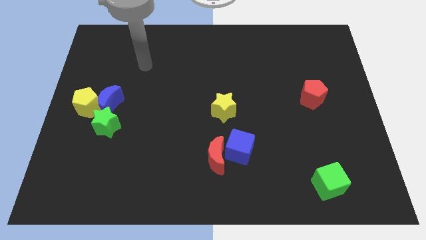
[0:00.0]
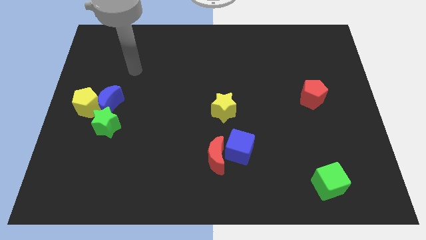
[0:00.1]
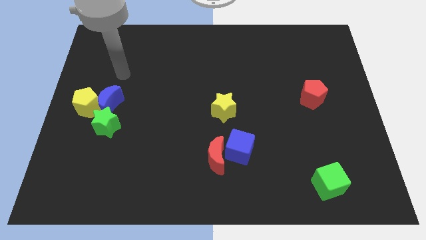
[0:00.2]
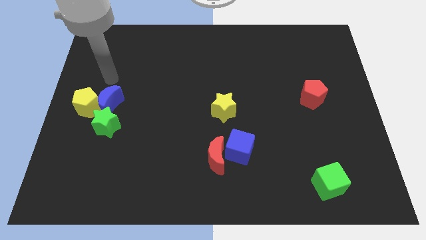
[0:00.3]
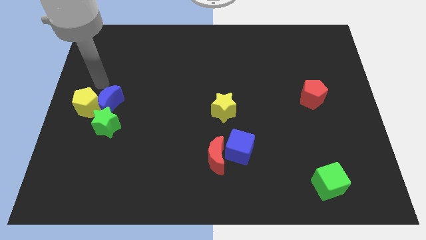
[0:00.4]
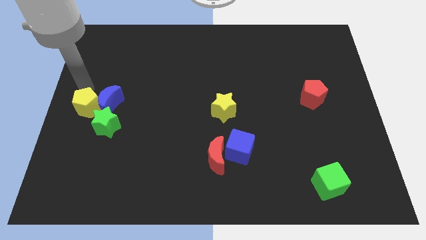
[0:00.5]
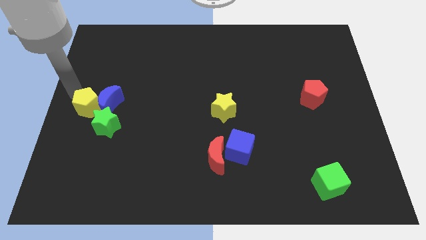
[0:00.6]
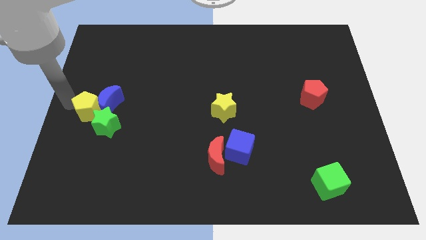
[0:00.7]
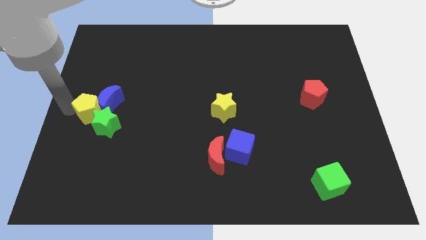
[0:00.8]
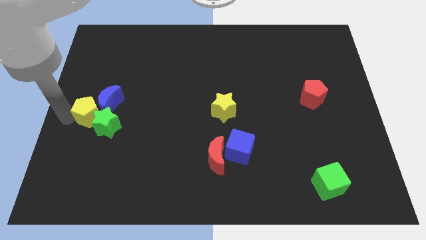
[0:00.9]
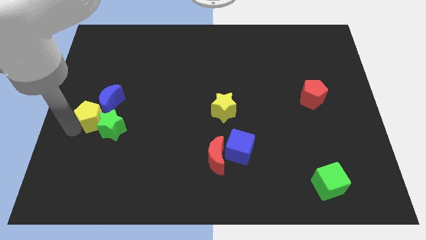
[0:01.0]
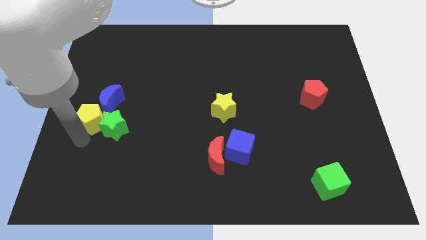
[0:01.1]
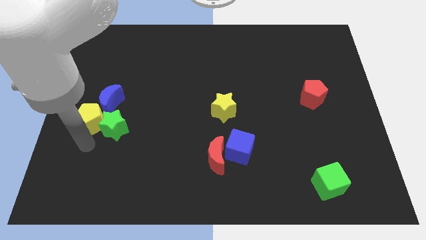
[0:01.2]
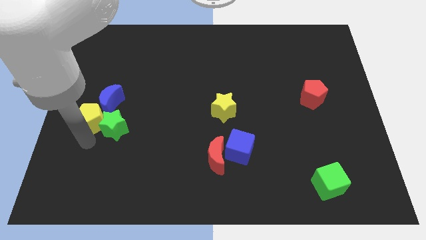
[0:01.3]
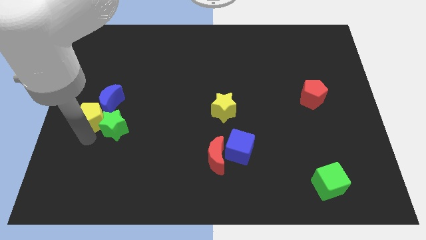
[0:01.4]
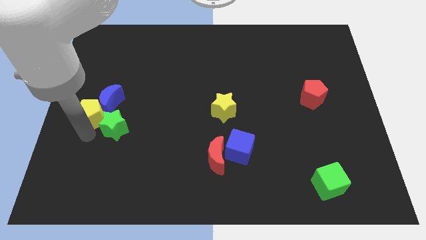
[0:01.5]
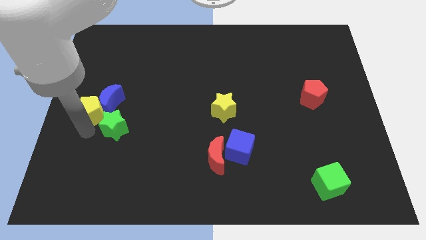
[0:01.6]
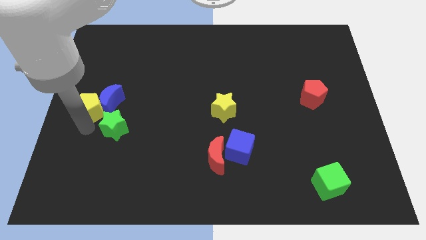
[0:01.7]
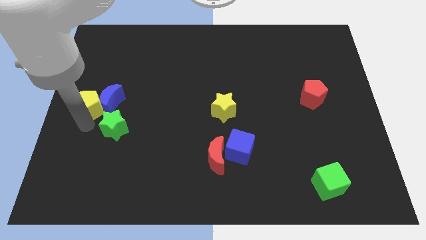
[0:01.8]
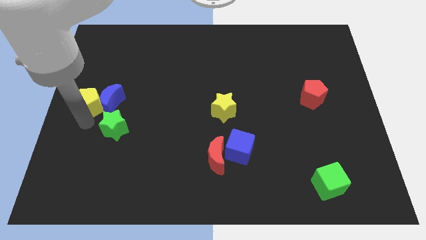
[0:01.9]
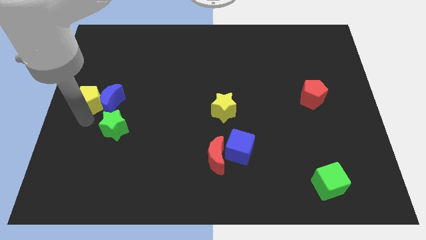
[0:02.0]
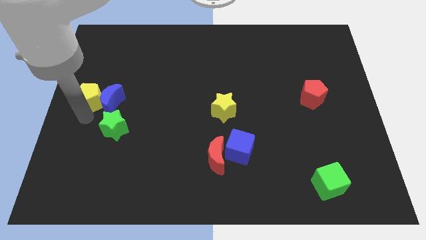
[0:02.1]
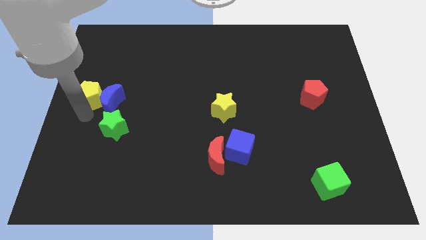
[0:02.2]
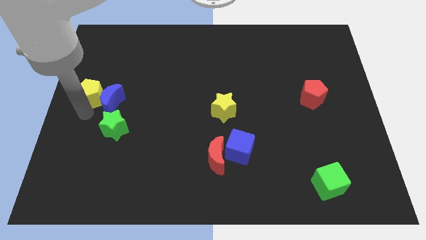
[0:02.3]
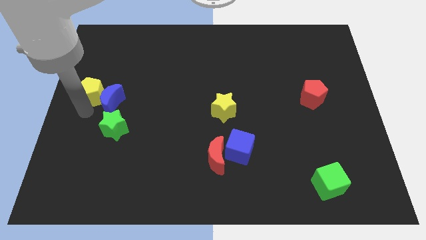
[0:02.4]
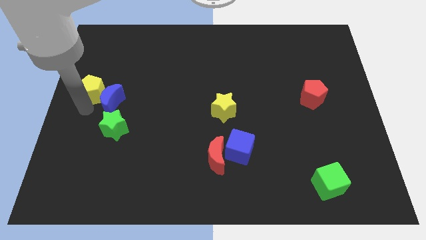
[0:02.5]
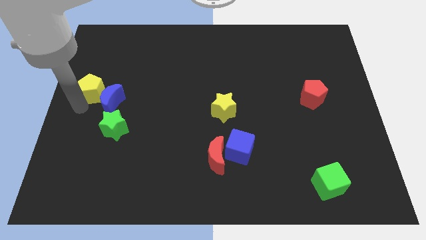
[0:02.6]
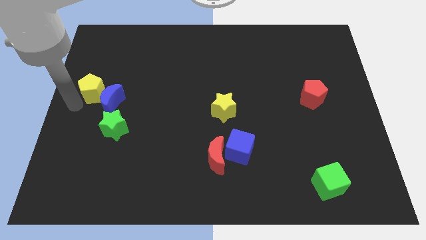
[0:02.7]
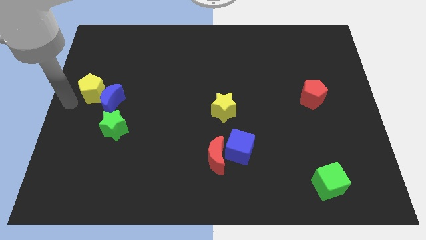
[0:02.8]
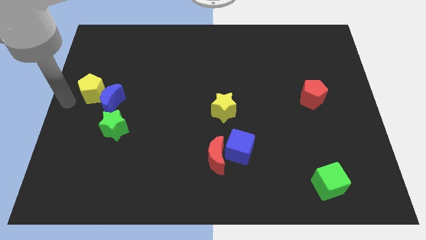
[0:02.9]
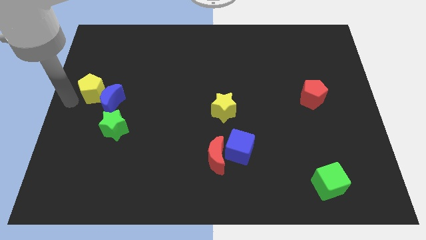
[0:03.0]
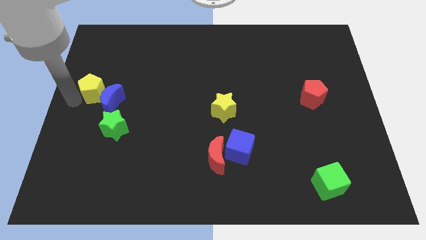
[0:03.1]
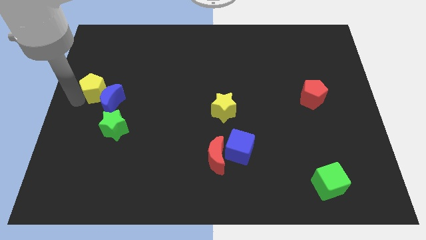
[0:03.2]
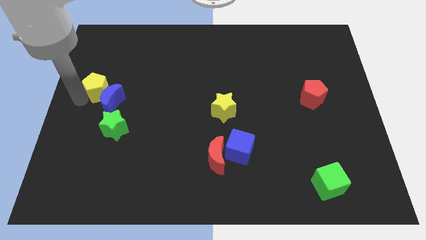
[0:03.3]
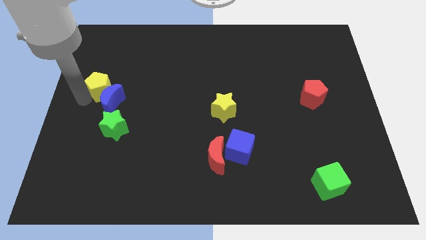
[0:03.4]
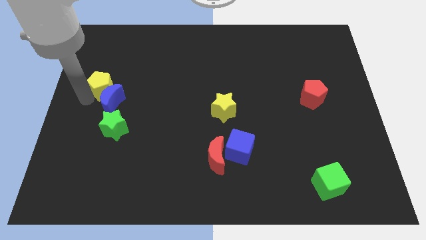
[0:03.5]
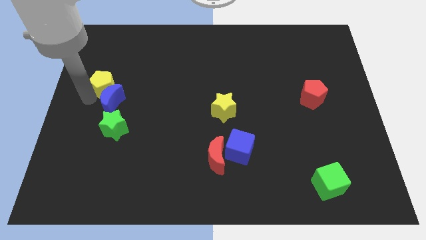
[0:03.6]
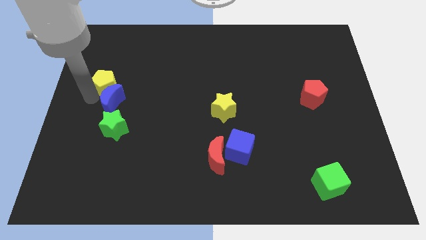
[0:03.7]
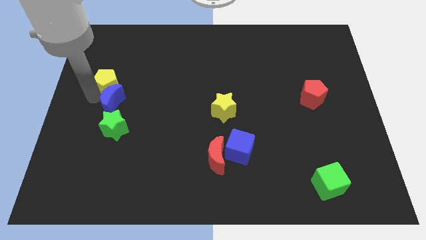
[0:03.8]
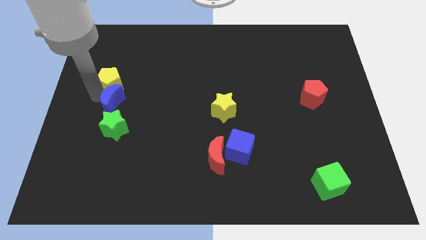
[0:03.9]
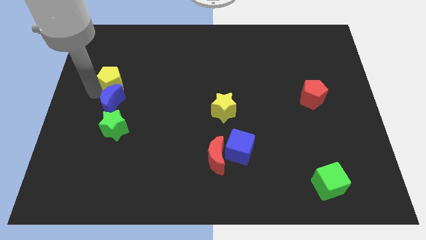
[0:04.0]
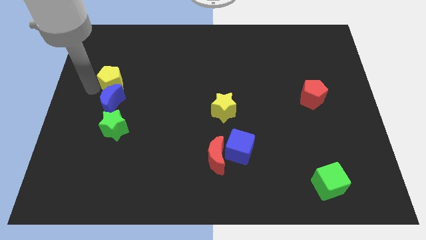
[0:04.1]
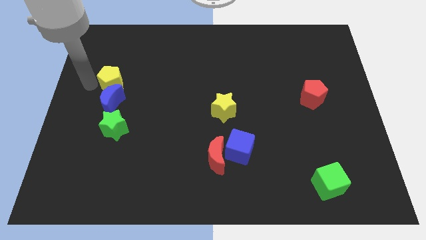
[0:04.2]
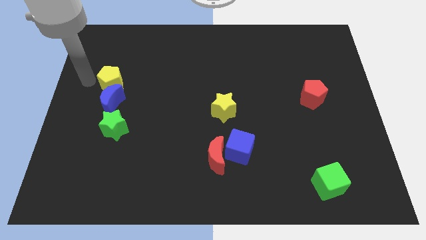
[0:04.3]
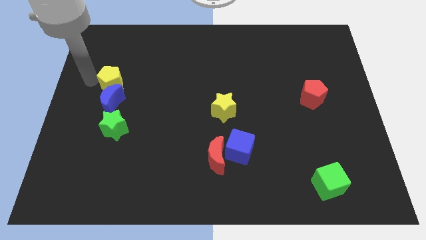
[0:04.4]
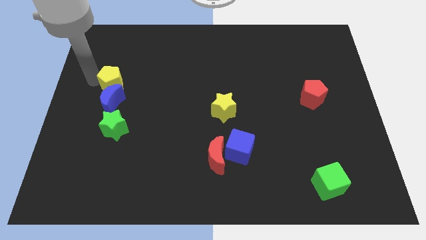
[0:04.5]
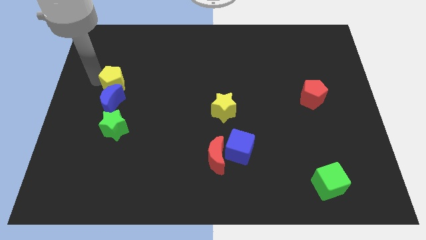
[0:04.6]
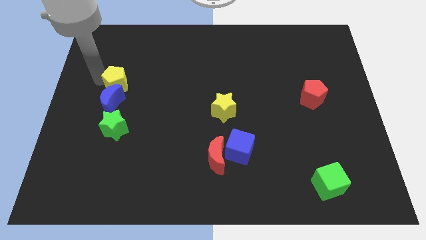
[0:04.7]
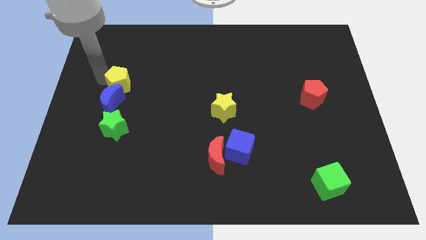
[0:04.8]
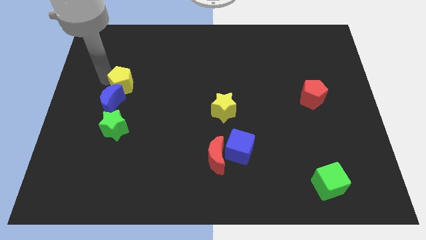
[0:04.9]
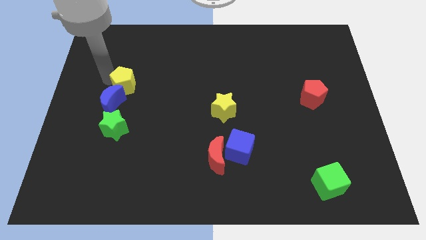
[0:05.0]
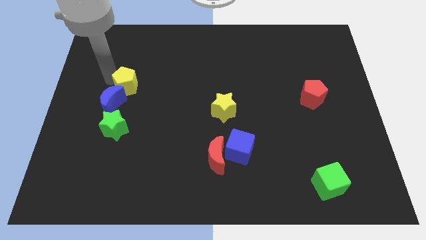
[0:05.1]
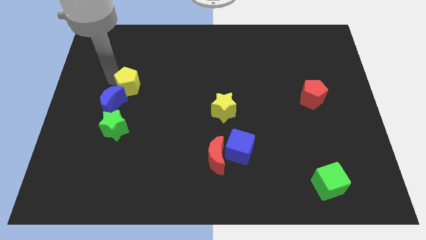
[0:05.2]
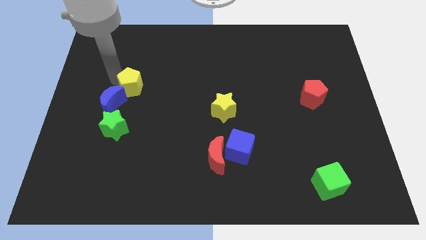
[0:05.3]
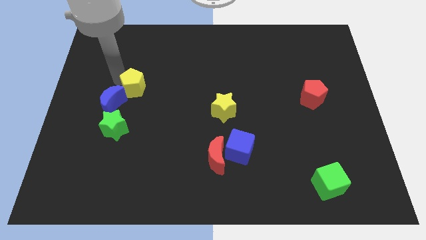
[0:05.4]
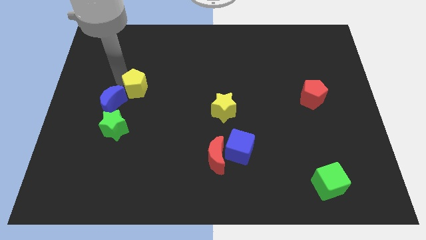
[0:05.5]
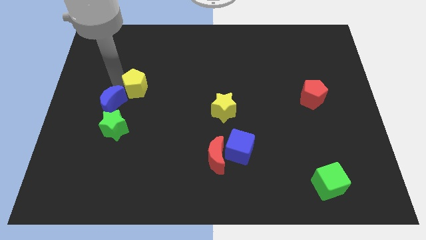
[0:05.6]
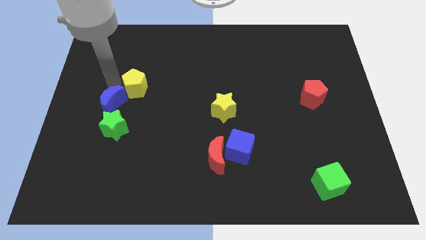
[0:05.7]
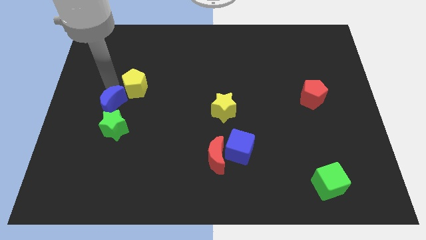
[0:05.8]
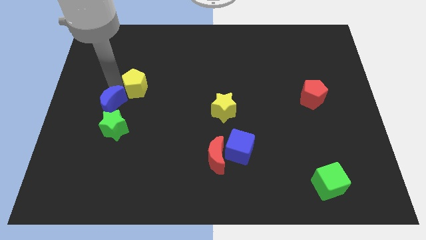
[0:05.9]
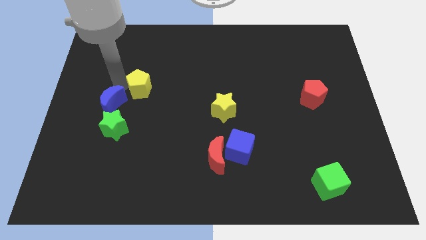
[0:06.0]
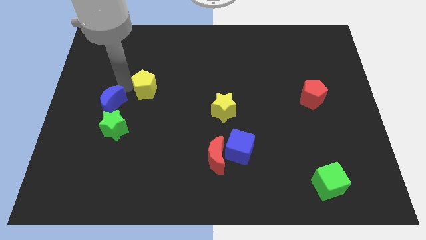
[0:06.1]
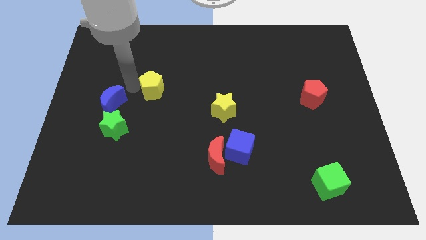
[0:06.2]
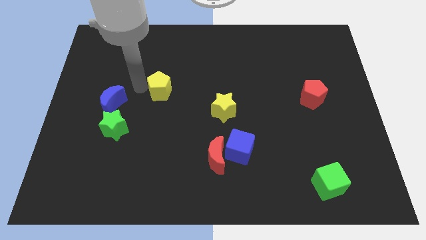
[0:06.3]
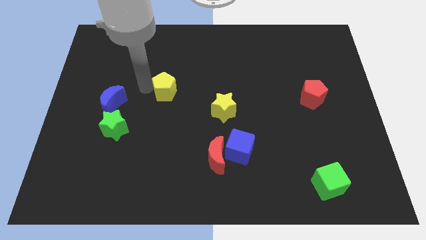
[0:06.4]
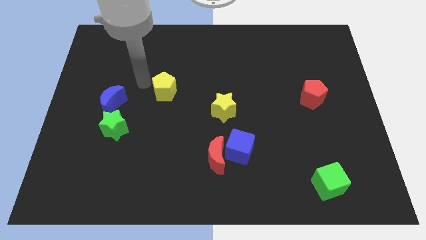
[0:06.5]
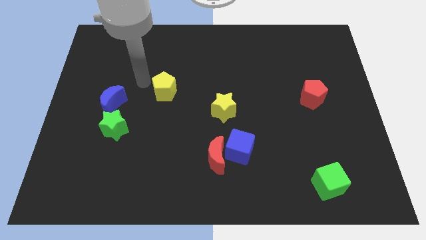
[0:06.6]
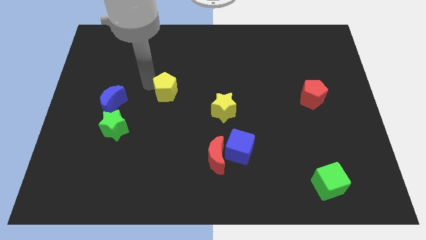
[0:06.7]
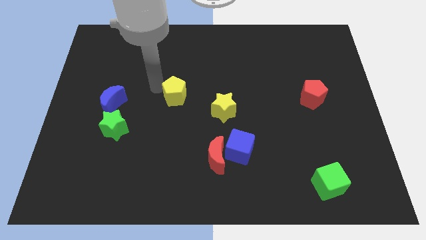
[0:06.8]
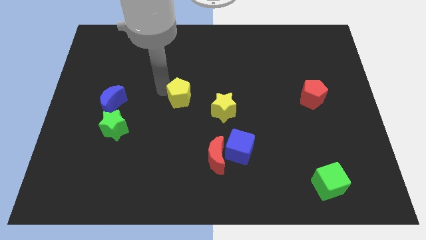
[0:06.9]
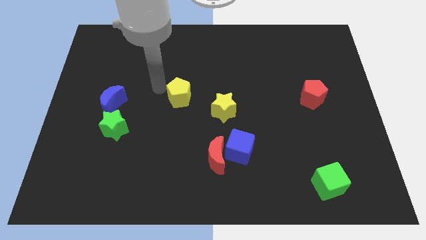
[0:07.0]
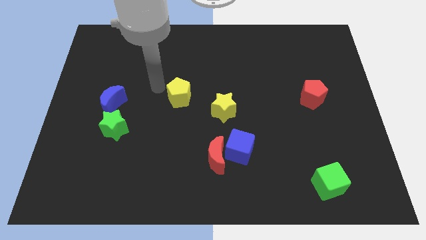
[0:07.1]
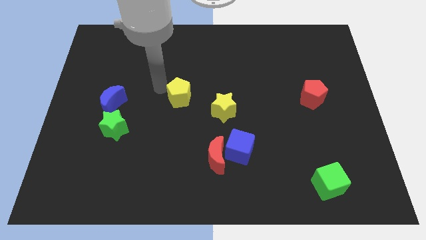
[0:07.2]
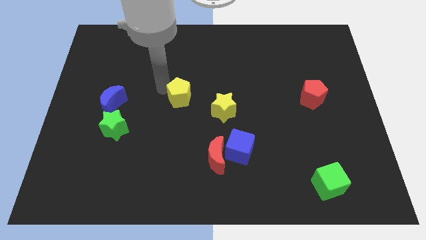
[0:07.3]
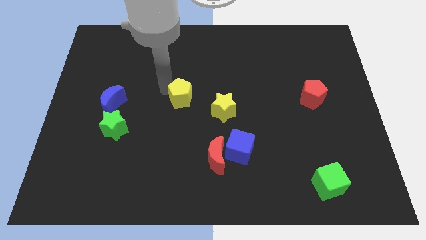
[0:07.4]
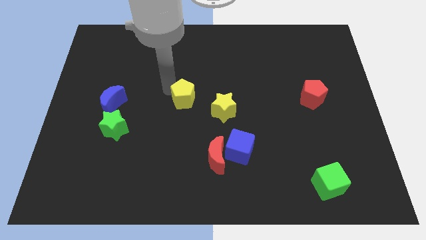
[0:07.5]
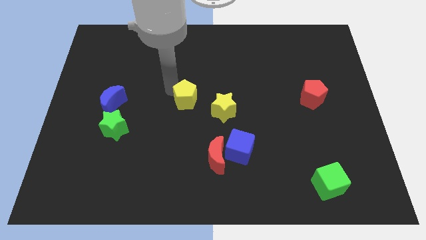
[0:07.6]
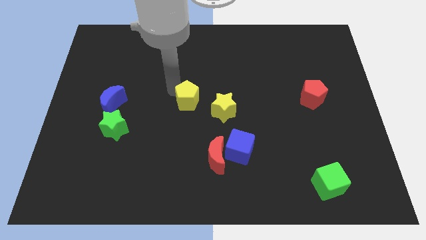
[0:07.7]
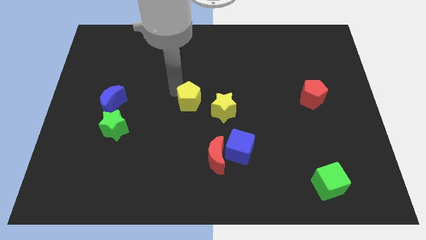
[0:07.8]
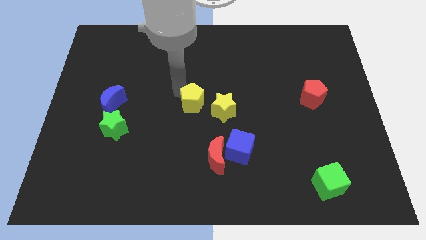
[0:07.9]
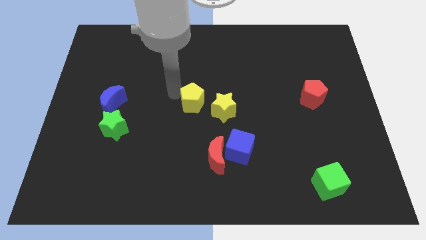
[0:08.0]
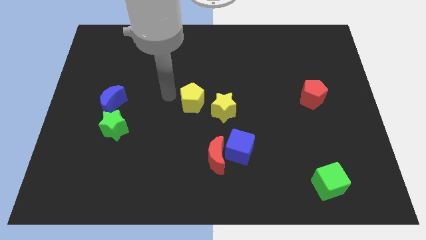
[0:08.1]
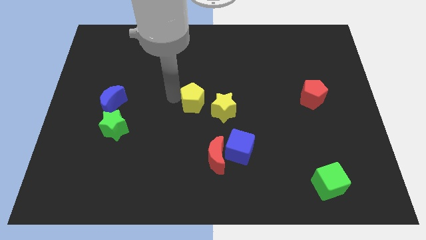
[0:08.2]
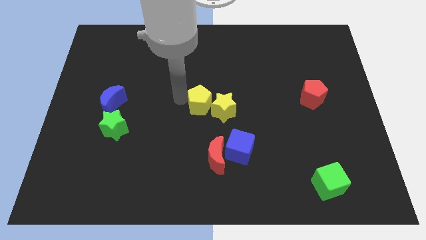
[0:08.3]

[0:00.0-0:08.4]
put the yellow pentagon next to the yellow star
